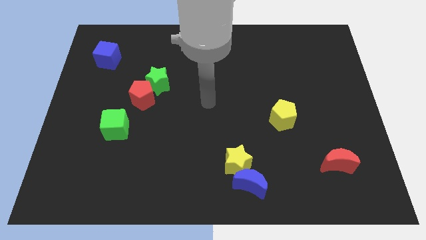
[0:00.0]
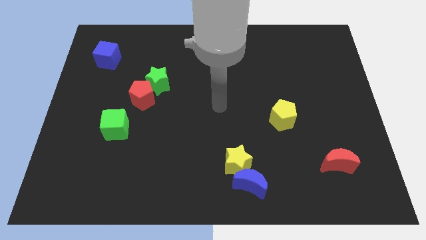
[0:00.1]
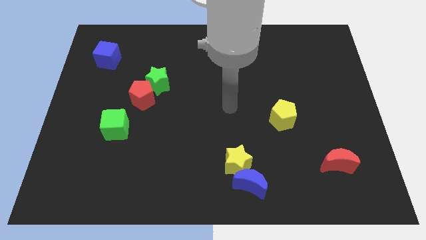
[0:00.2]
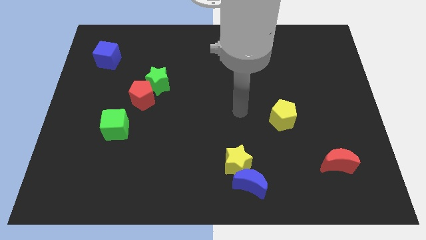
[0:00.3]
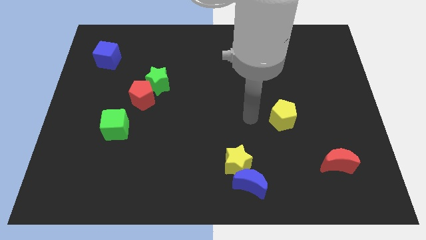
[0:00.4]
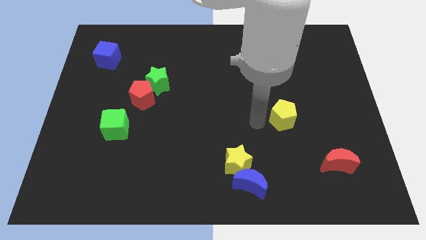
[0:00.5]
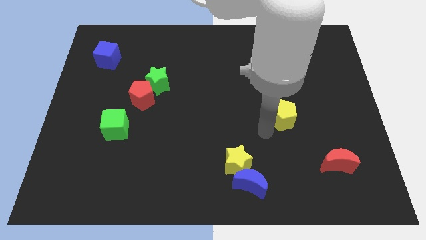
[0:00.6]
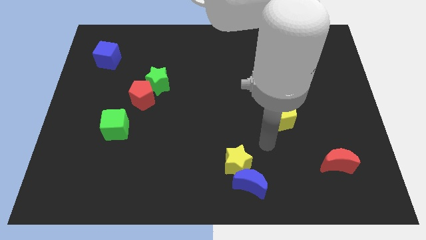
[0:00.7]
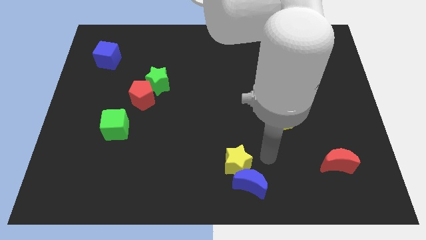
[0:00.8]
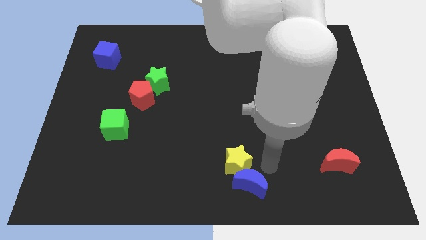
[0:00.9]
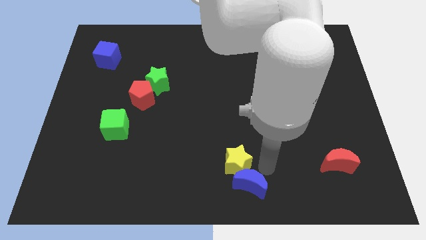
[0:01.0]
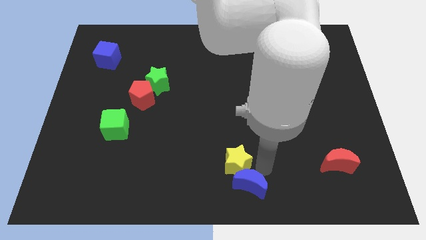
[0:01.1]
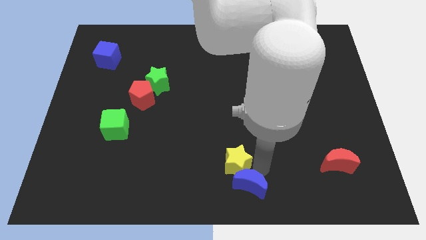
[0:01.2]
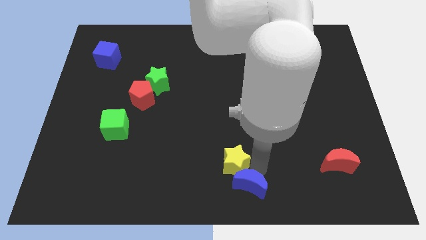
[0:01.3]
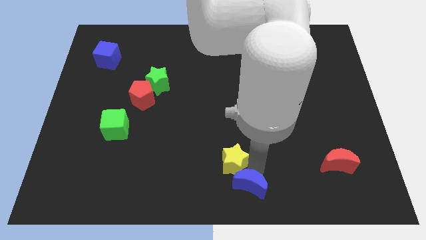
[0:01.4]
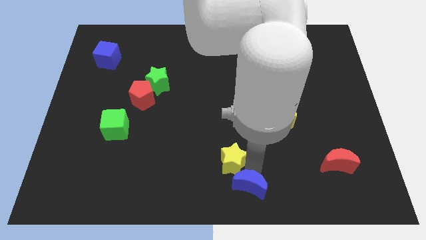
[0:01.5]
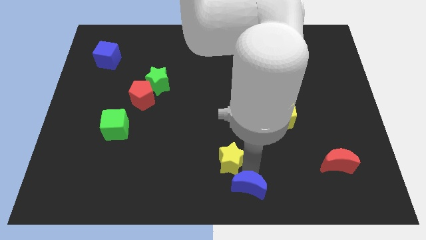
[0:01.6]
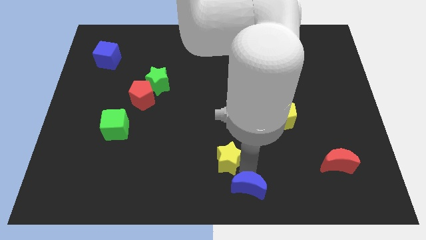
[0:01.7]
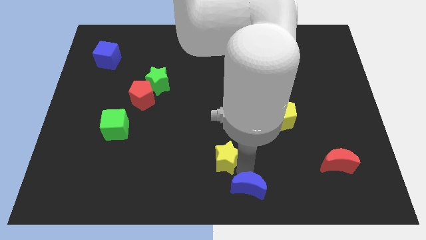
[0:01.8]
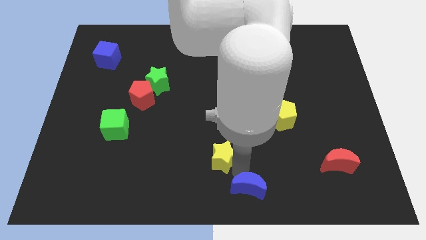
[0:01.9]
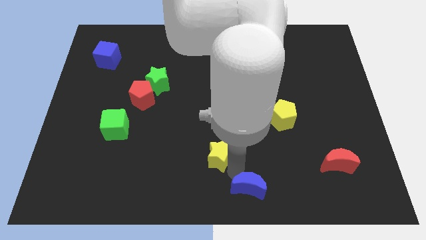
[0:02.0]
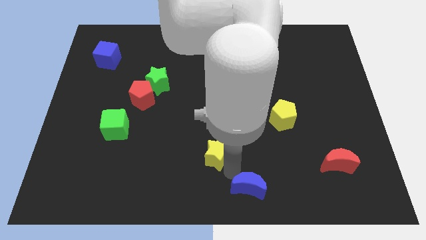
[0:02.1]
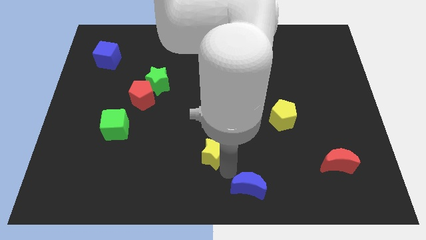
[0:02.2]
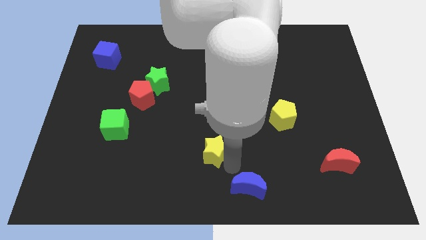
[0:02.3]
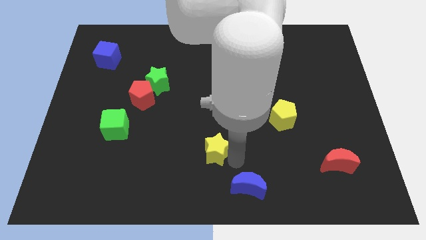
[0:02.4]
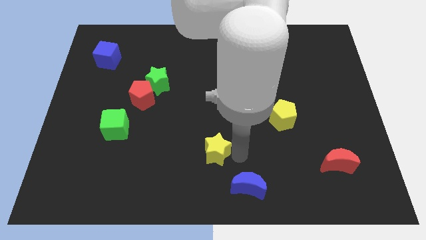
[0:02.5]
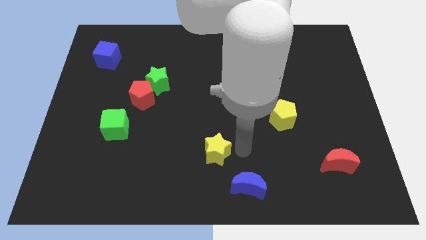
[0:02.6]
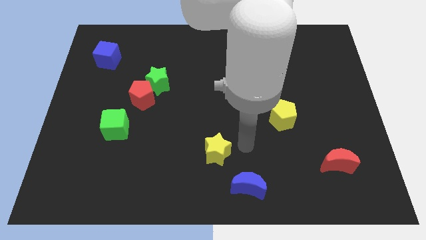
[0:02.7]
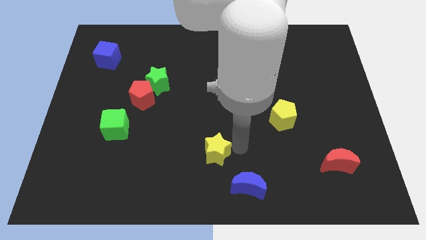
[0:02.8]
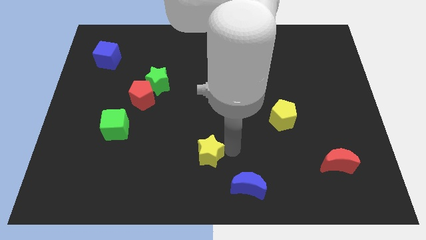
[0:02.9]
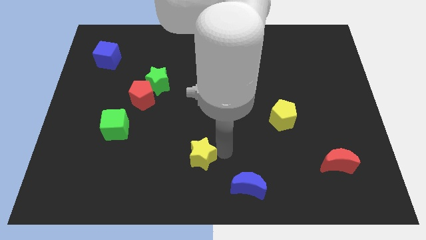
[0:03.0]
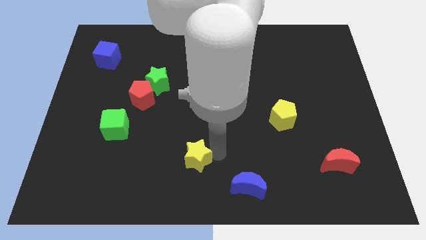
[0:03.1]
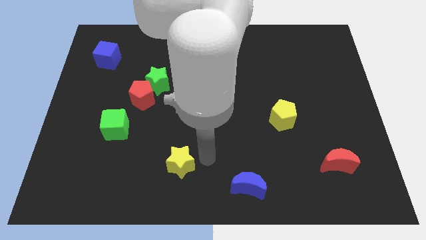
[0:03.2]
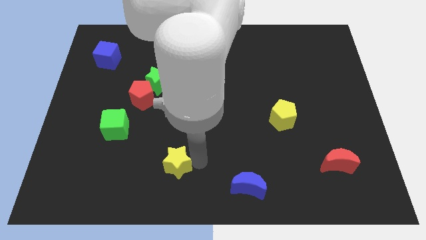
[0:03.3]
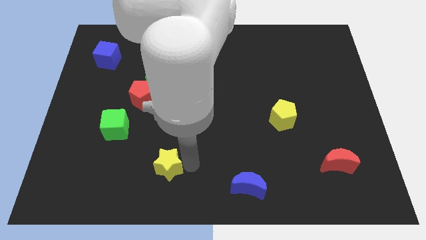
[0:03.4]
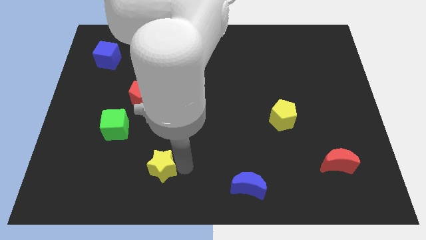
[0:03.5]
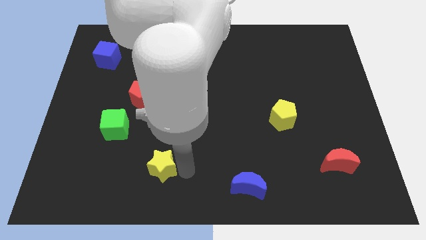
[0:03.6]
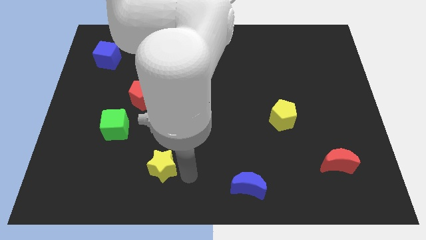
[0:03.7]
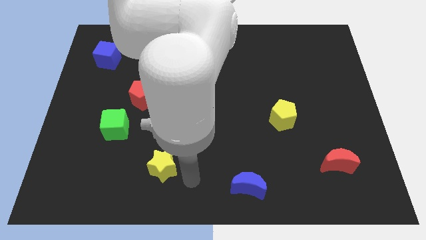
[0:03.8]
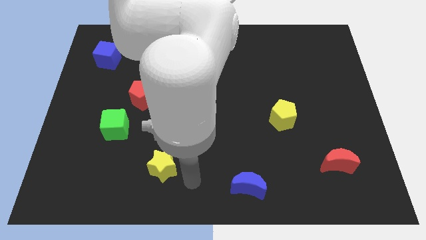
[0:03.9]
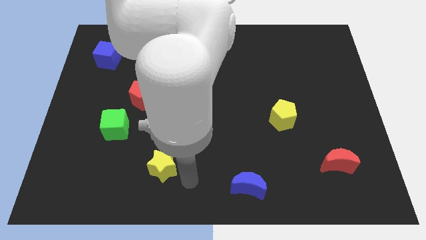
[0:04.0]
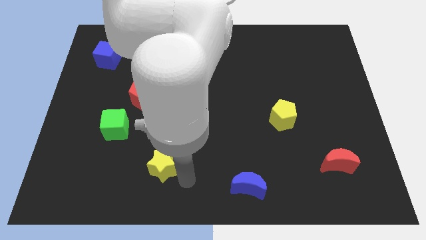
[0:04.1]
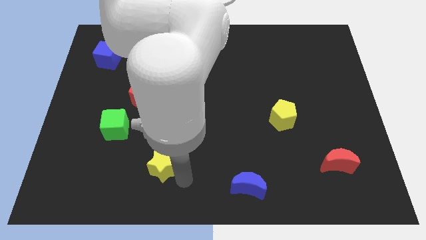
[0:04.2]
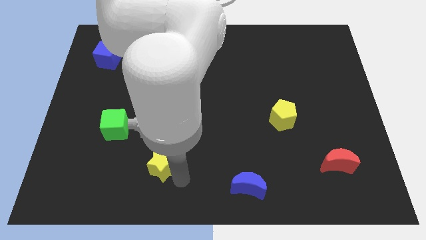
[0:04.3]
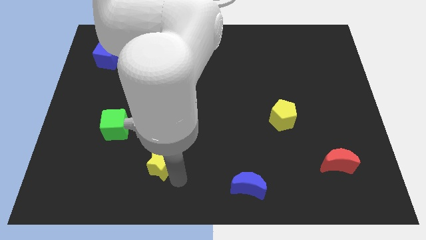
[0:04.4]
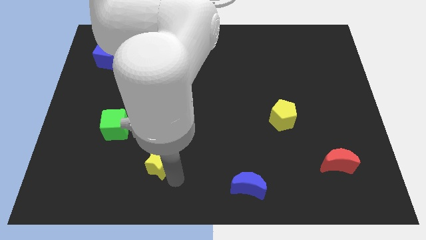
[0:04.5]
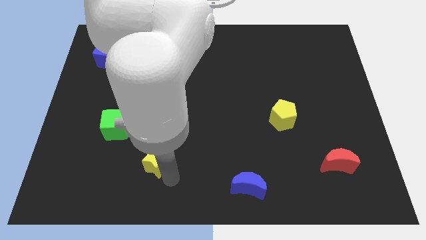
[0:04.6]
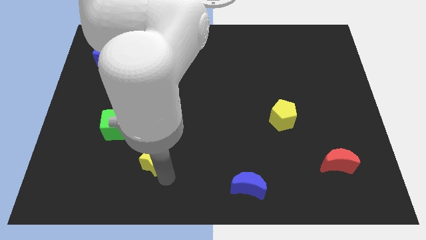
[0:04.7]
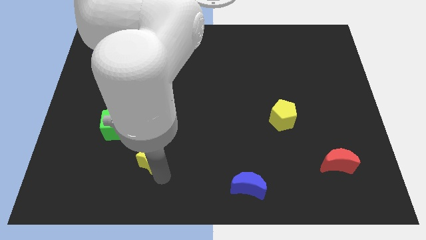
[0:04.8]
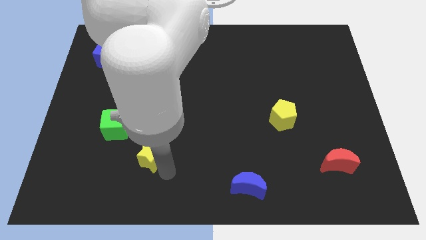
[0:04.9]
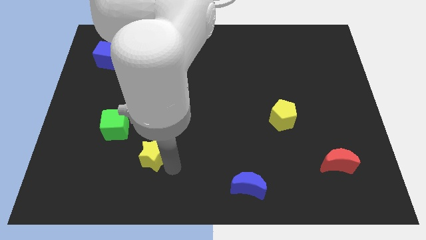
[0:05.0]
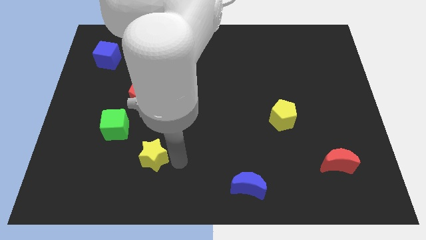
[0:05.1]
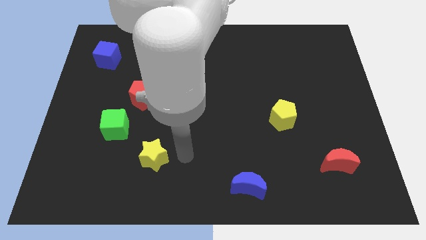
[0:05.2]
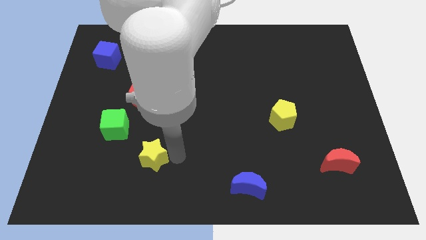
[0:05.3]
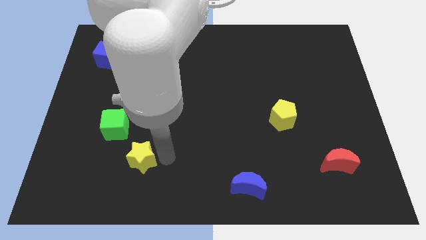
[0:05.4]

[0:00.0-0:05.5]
slide the yellow star left

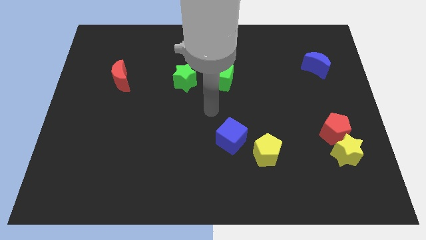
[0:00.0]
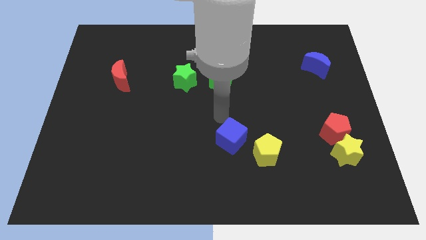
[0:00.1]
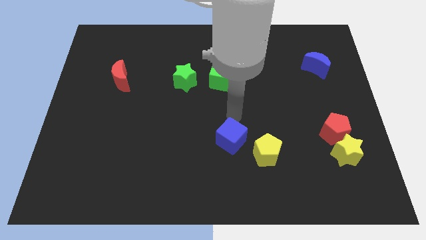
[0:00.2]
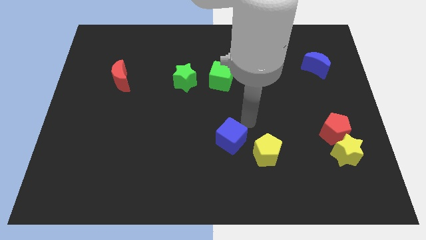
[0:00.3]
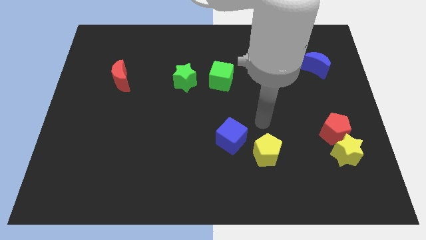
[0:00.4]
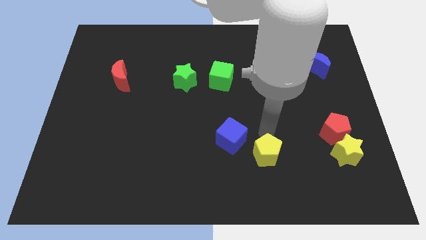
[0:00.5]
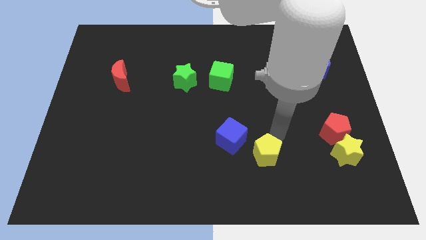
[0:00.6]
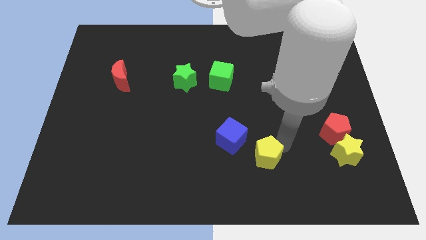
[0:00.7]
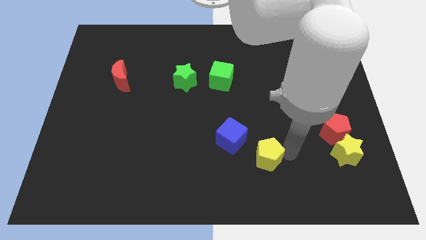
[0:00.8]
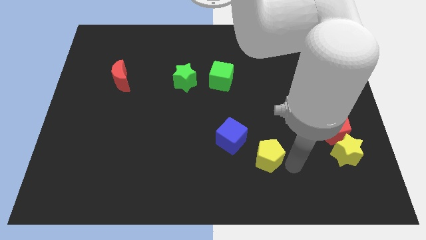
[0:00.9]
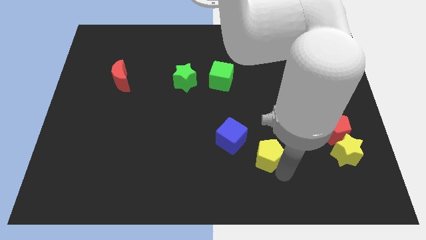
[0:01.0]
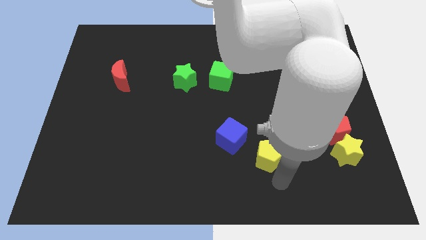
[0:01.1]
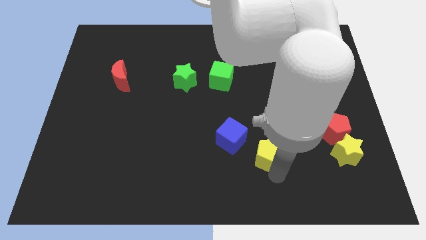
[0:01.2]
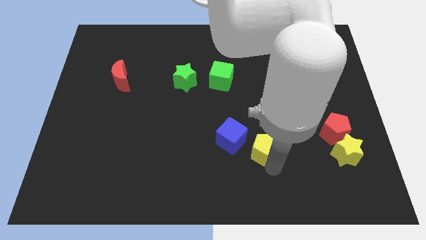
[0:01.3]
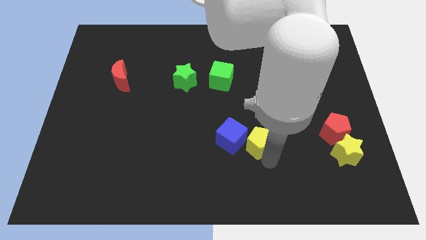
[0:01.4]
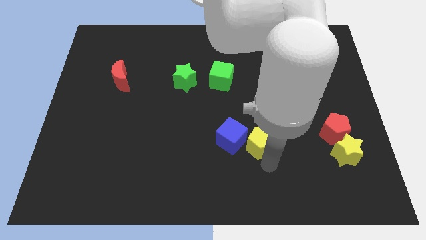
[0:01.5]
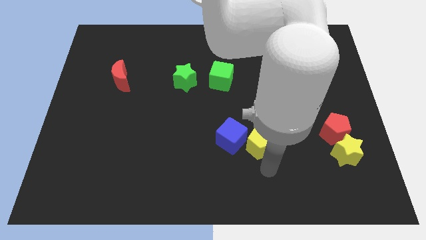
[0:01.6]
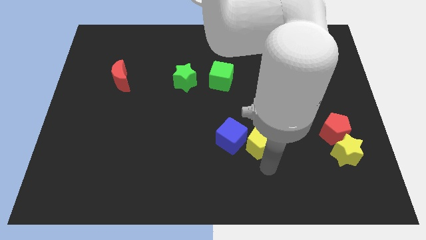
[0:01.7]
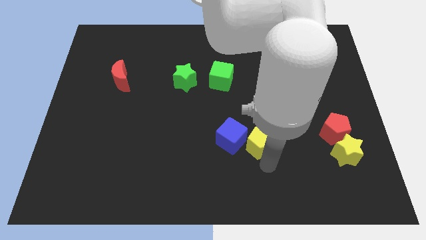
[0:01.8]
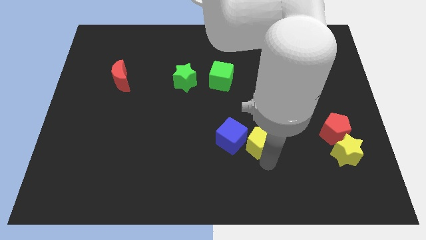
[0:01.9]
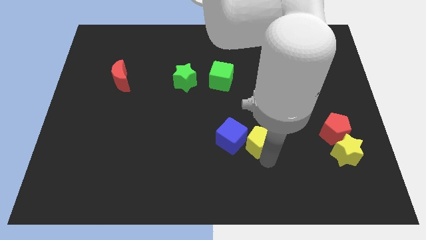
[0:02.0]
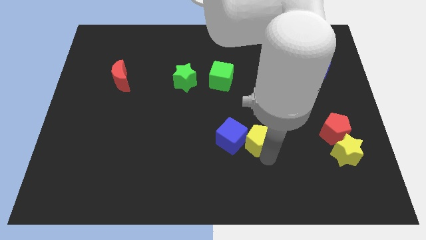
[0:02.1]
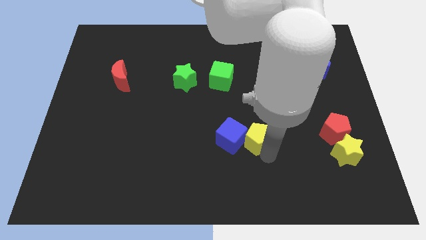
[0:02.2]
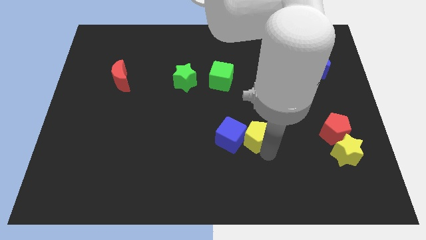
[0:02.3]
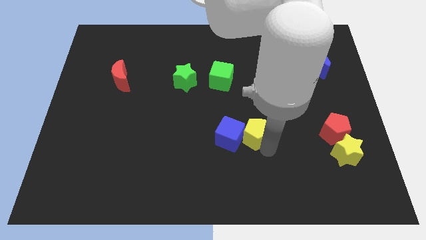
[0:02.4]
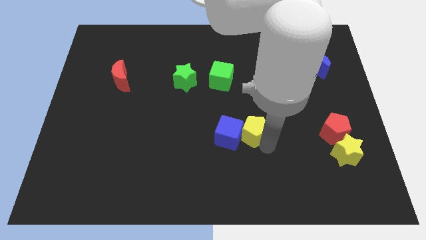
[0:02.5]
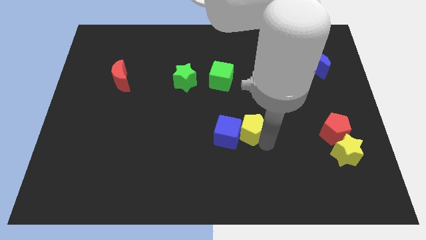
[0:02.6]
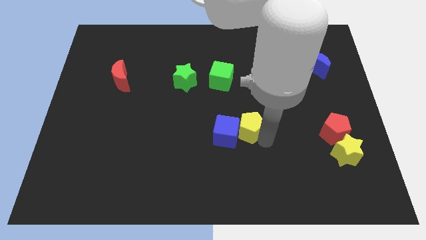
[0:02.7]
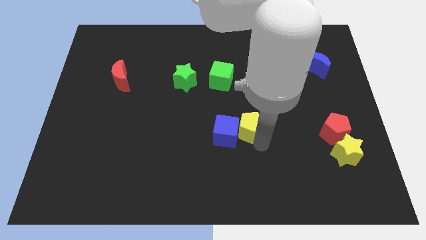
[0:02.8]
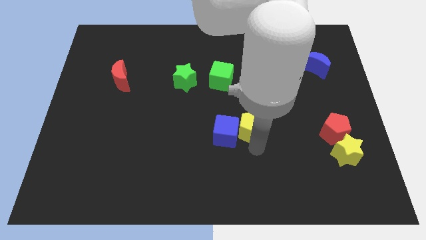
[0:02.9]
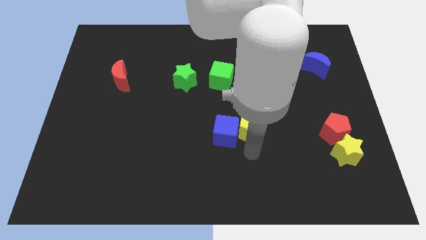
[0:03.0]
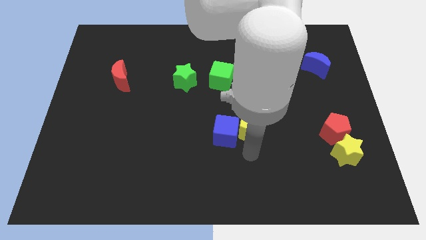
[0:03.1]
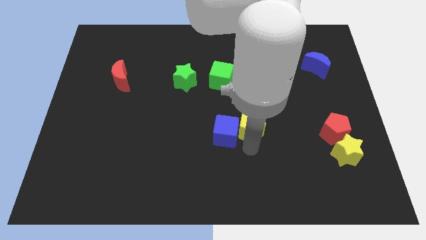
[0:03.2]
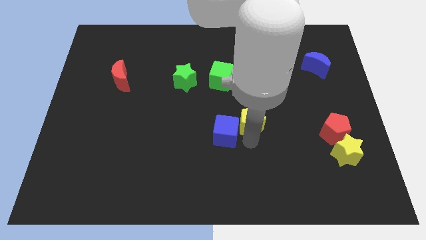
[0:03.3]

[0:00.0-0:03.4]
slide the yellow pentagon slightly upwards
